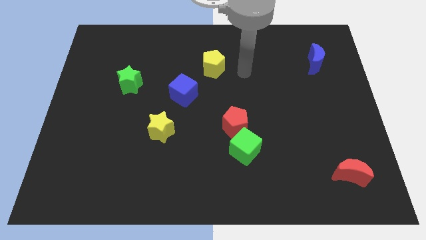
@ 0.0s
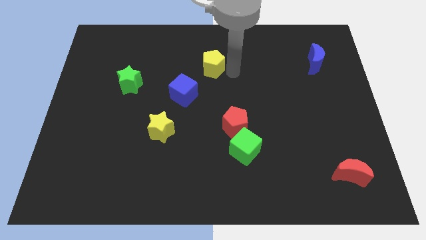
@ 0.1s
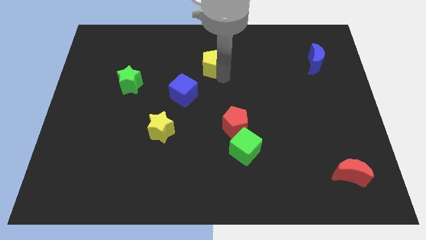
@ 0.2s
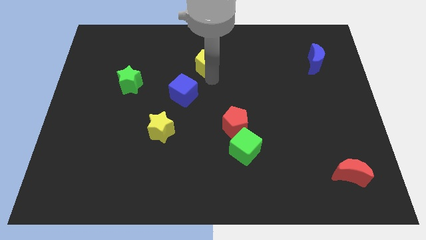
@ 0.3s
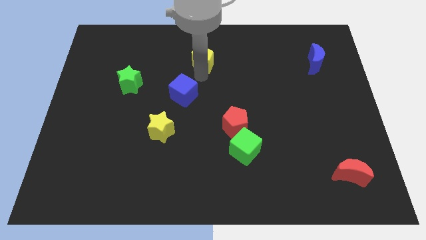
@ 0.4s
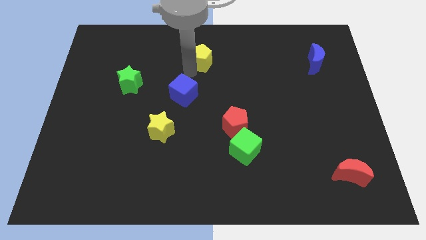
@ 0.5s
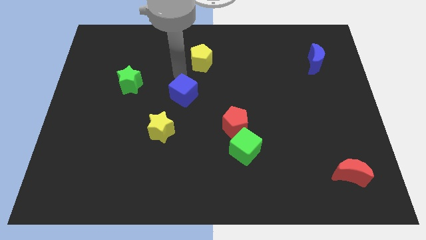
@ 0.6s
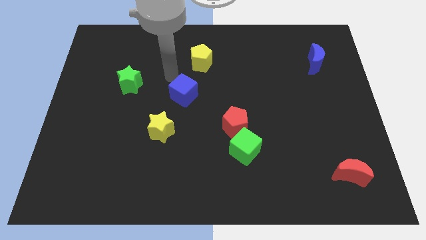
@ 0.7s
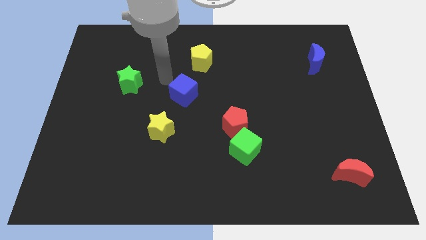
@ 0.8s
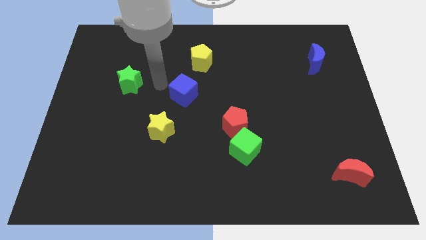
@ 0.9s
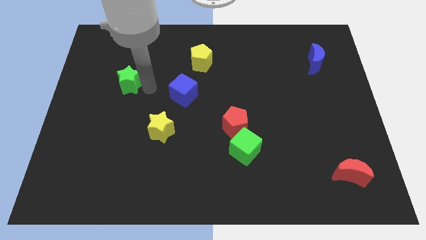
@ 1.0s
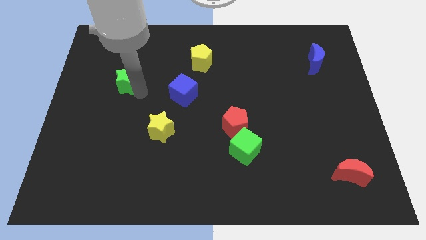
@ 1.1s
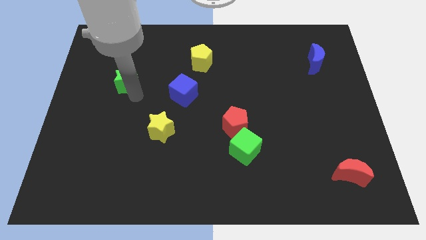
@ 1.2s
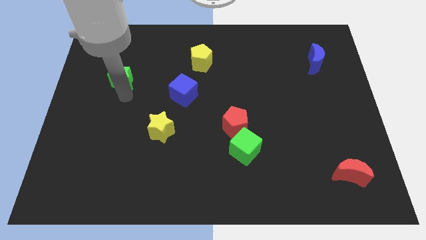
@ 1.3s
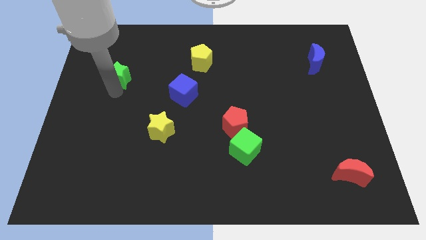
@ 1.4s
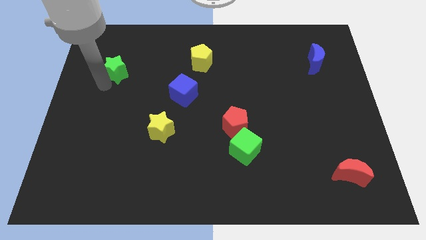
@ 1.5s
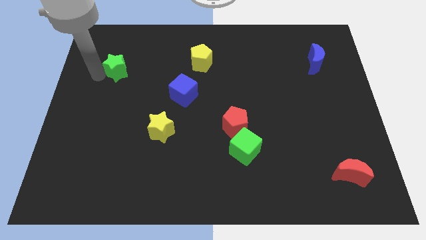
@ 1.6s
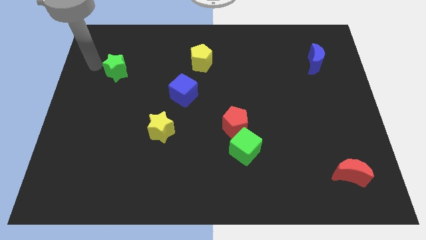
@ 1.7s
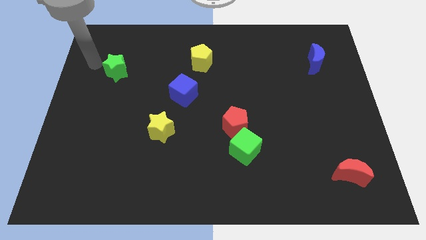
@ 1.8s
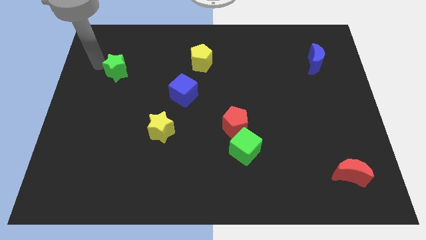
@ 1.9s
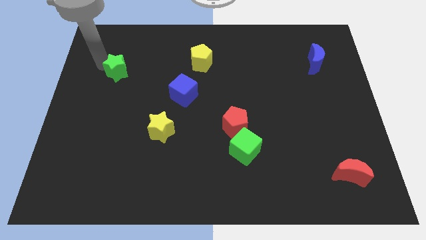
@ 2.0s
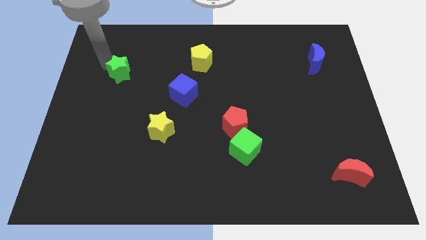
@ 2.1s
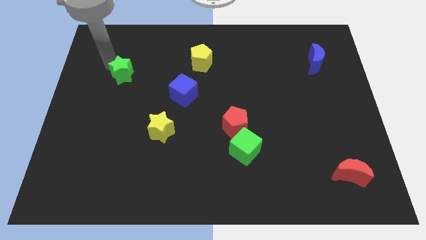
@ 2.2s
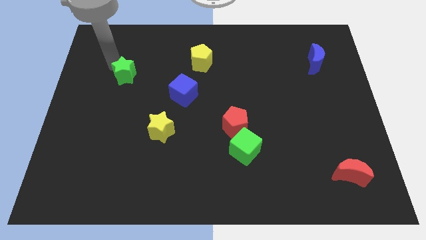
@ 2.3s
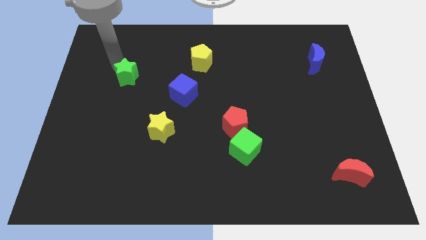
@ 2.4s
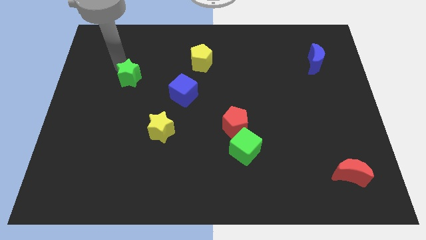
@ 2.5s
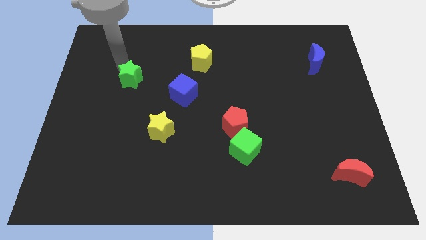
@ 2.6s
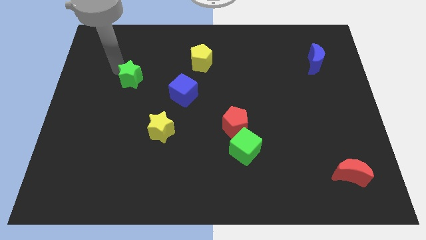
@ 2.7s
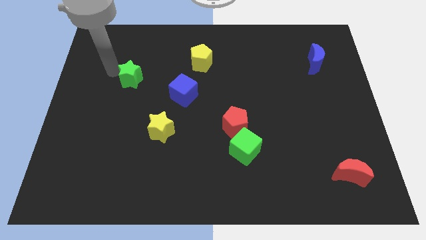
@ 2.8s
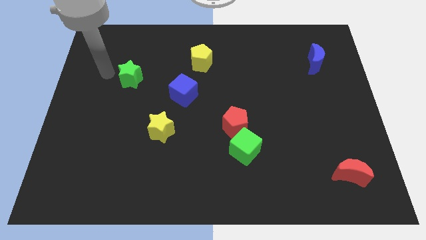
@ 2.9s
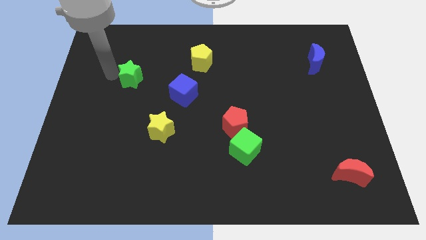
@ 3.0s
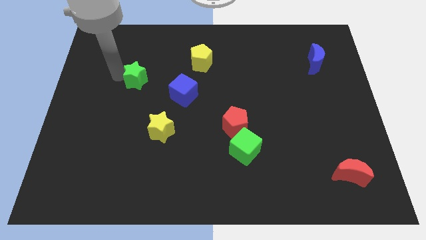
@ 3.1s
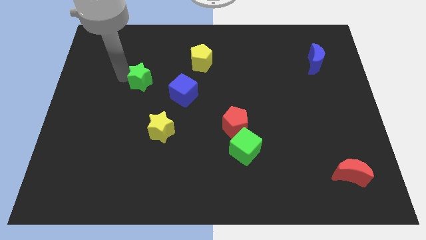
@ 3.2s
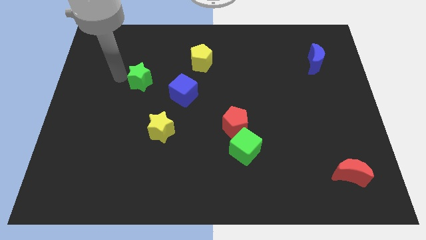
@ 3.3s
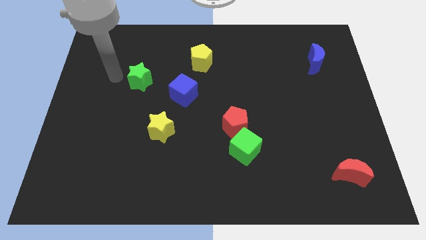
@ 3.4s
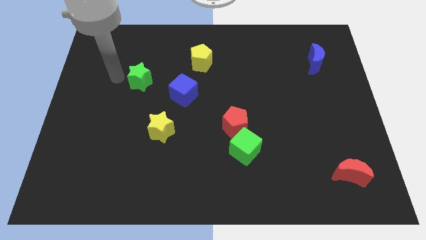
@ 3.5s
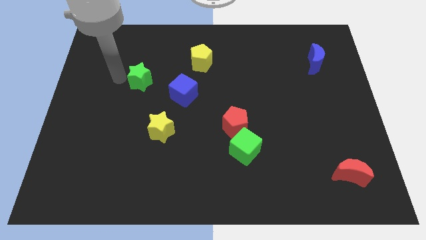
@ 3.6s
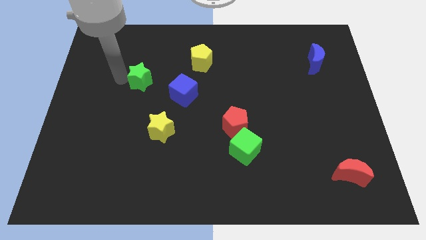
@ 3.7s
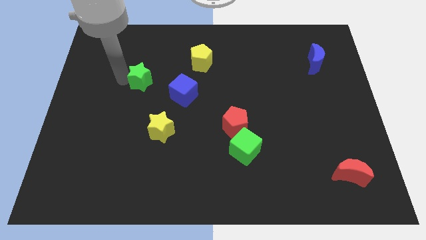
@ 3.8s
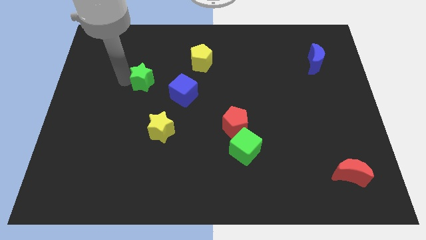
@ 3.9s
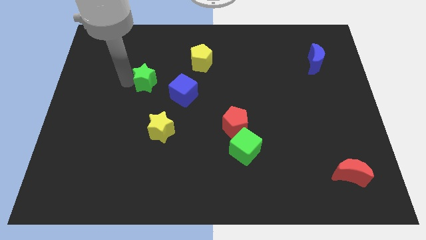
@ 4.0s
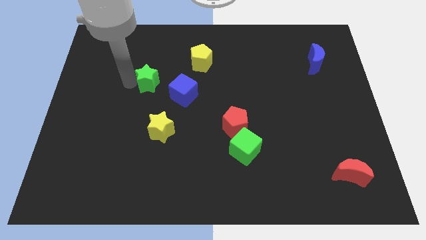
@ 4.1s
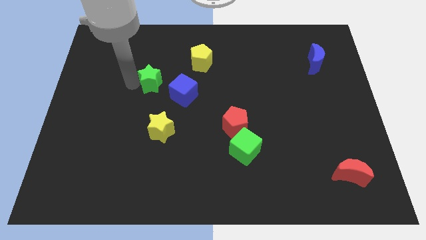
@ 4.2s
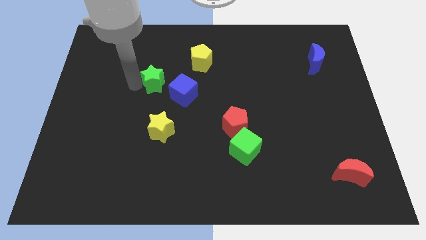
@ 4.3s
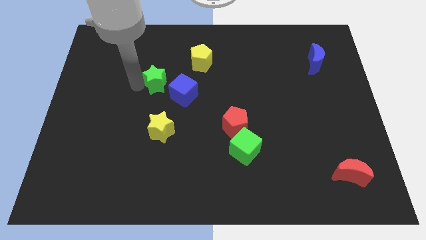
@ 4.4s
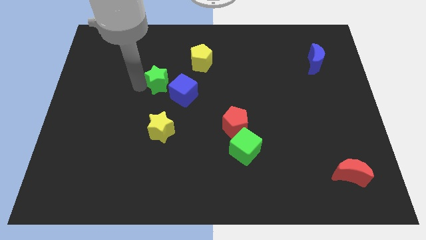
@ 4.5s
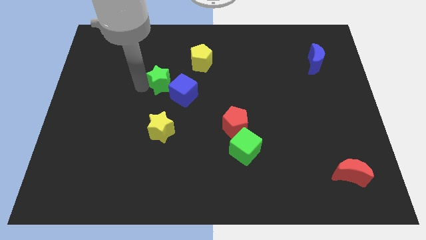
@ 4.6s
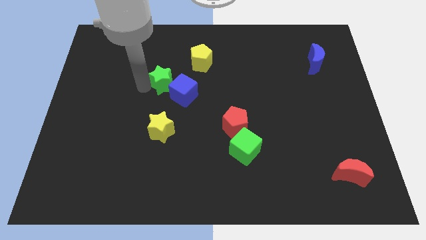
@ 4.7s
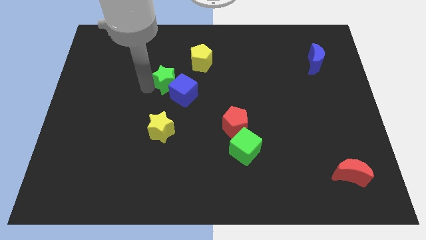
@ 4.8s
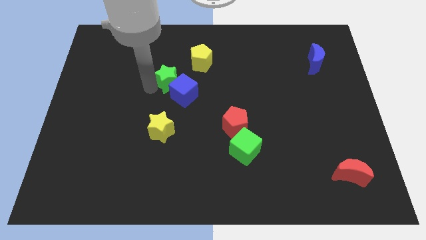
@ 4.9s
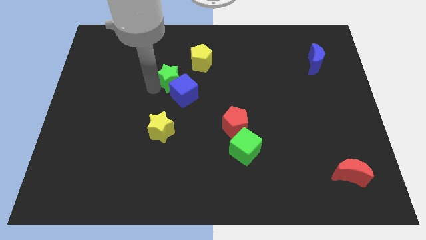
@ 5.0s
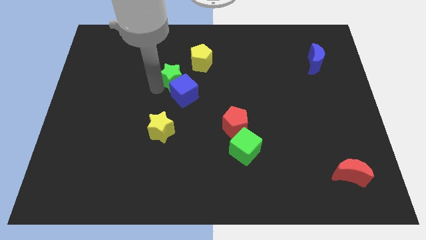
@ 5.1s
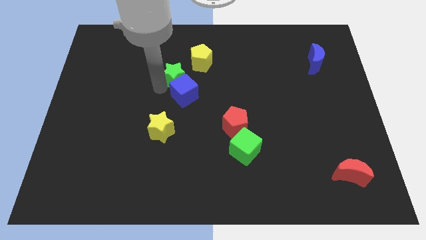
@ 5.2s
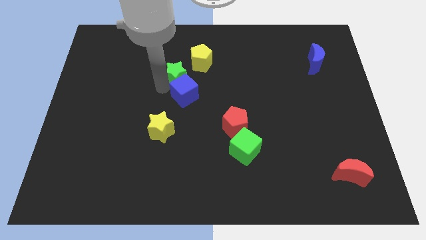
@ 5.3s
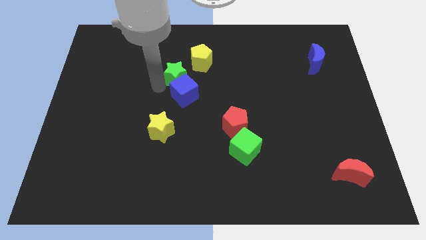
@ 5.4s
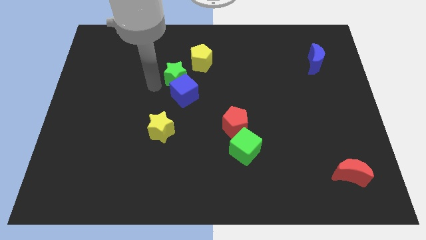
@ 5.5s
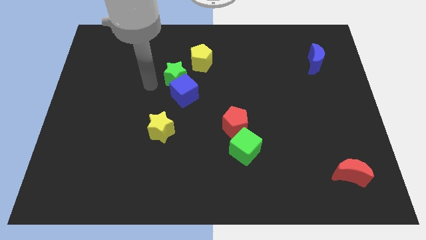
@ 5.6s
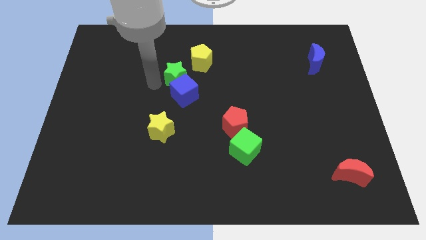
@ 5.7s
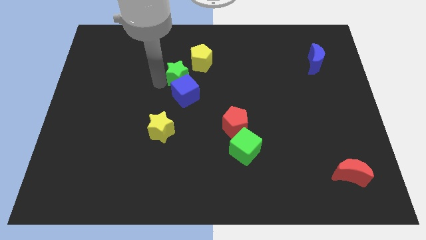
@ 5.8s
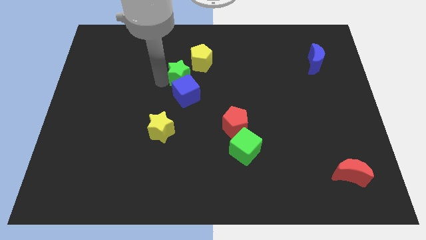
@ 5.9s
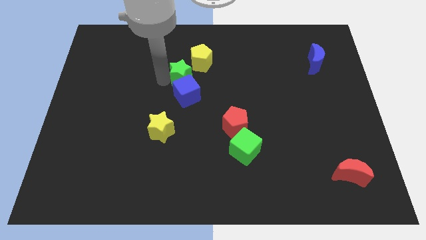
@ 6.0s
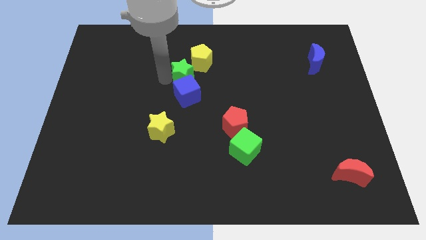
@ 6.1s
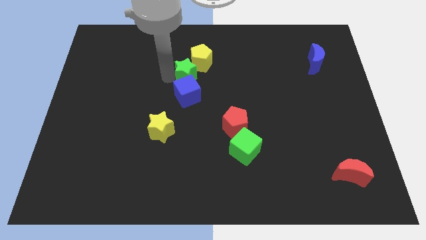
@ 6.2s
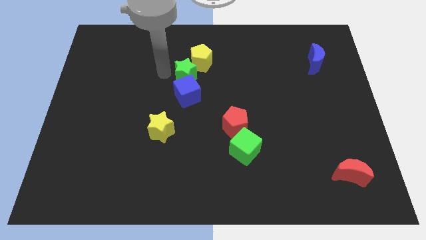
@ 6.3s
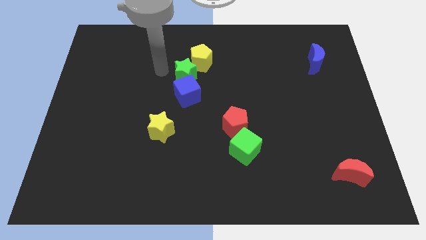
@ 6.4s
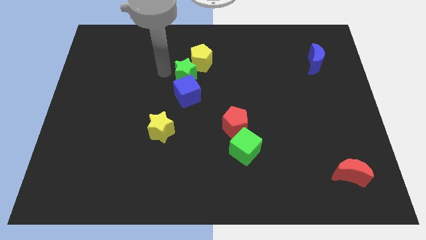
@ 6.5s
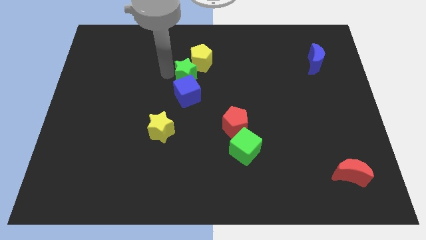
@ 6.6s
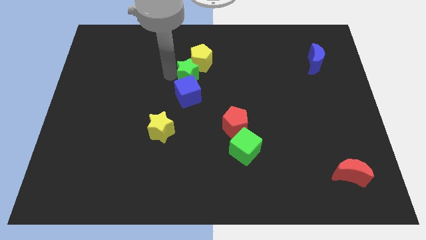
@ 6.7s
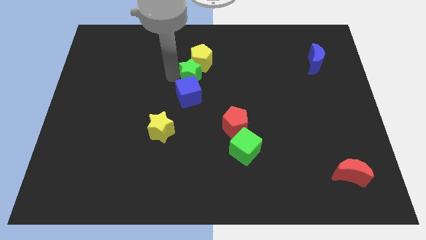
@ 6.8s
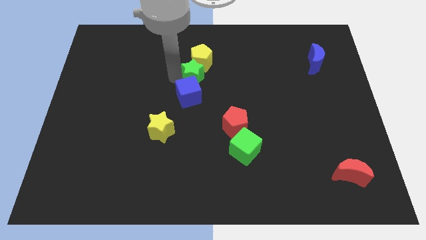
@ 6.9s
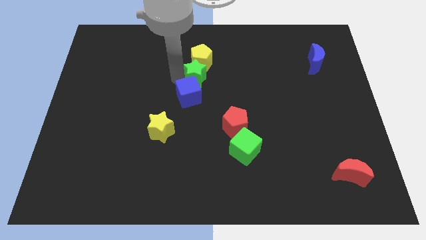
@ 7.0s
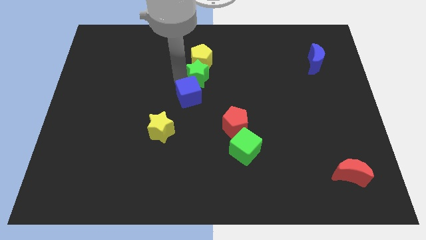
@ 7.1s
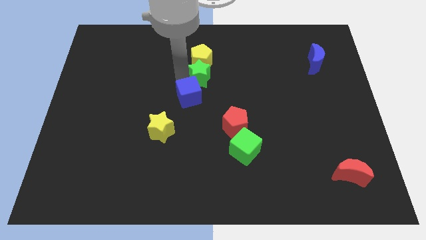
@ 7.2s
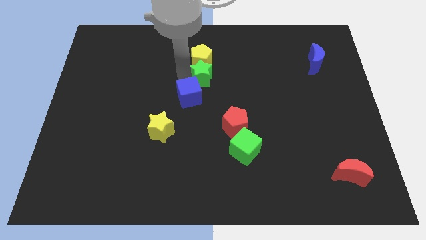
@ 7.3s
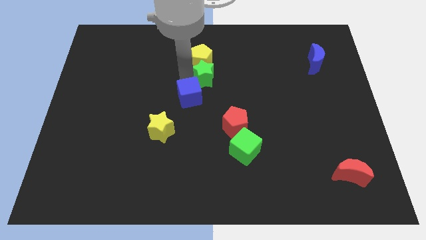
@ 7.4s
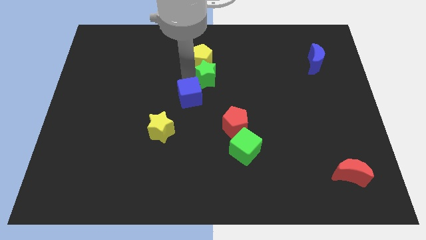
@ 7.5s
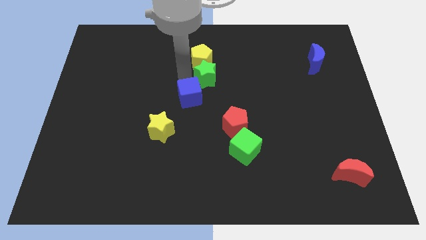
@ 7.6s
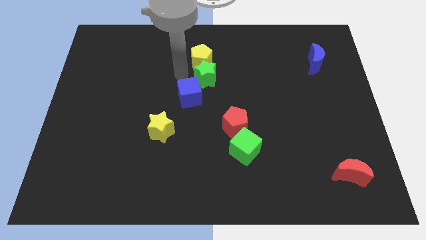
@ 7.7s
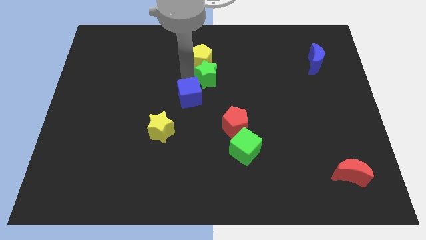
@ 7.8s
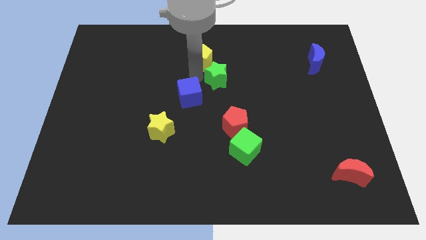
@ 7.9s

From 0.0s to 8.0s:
push the green star right
